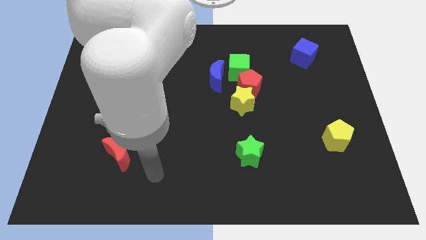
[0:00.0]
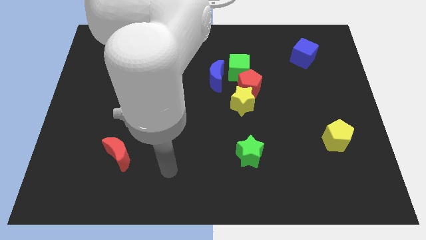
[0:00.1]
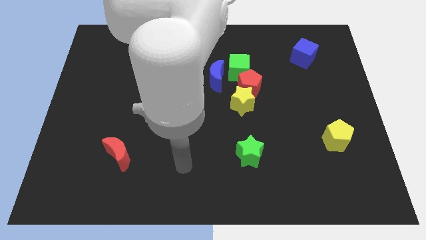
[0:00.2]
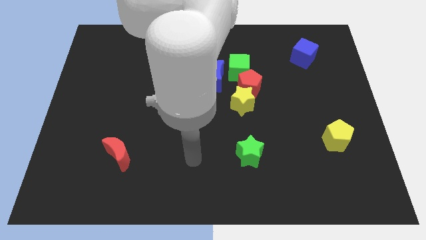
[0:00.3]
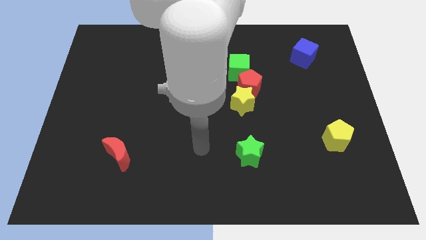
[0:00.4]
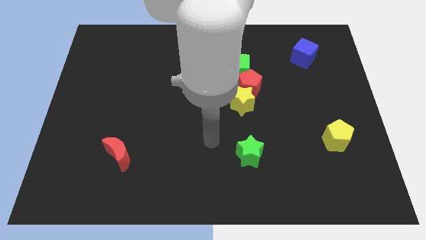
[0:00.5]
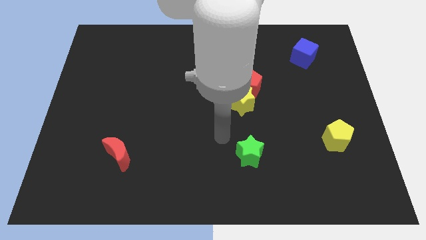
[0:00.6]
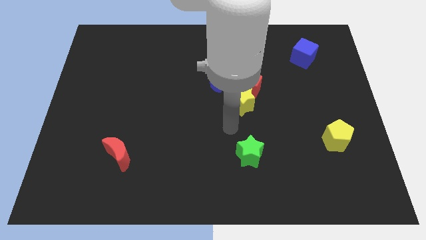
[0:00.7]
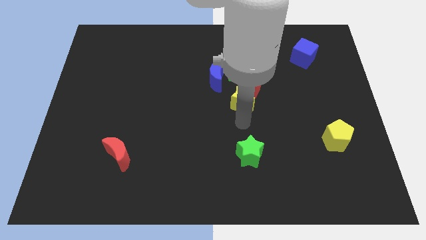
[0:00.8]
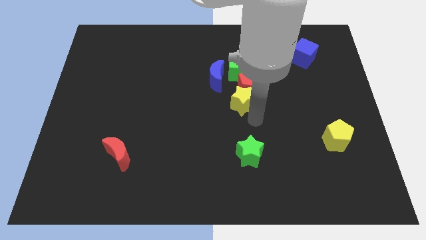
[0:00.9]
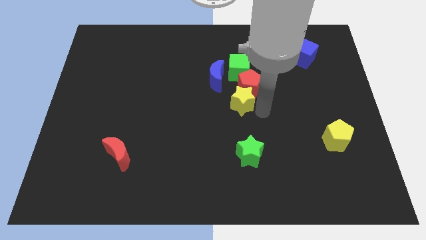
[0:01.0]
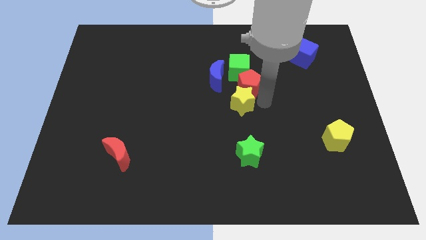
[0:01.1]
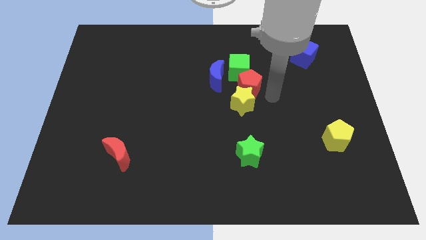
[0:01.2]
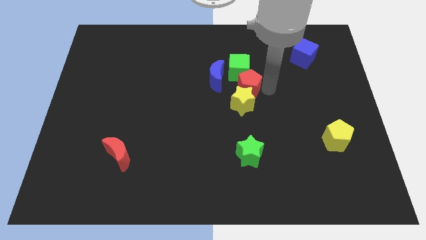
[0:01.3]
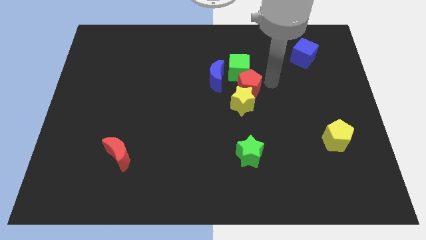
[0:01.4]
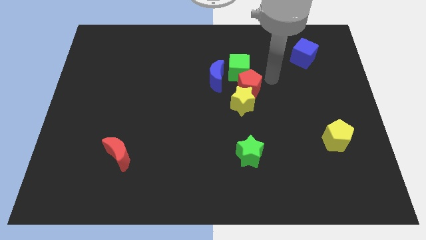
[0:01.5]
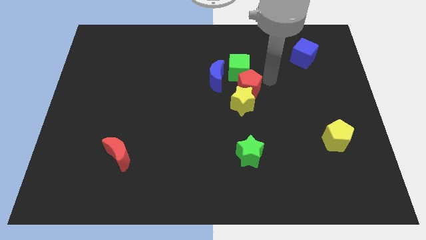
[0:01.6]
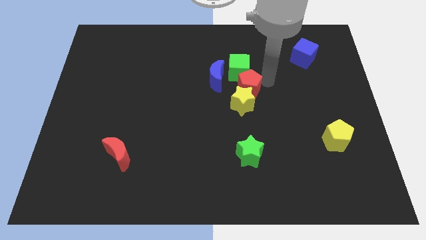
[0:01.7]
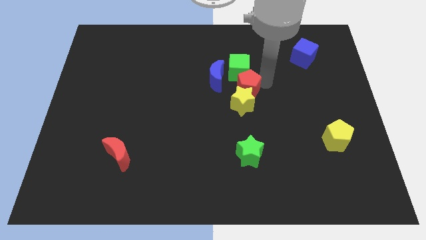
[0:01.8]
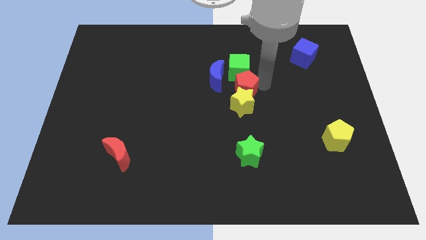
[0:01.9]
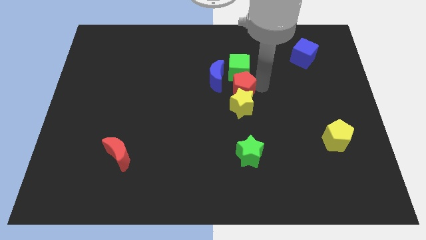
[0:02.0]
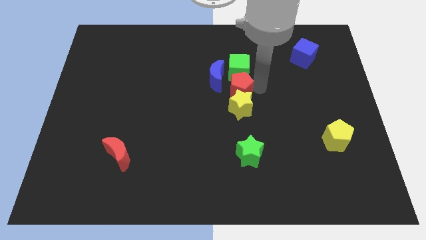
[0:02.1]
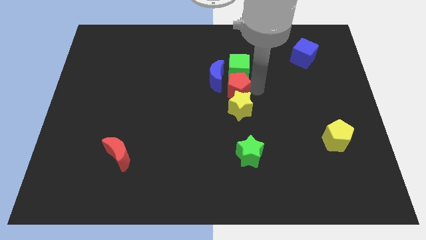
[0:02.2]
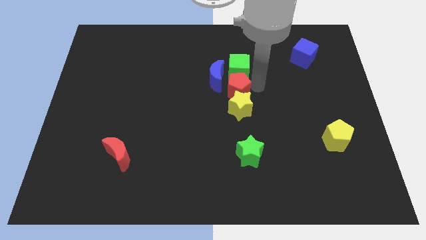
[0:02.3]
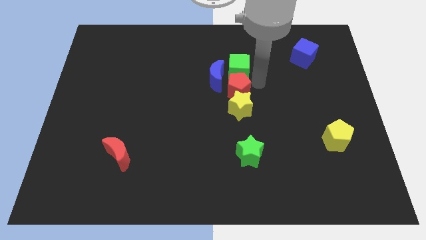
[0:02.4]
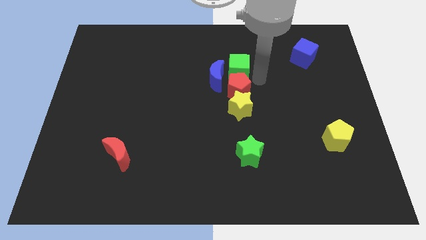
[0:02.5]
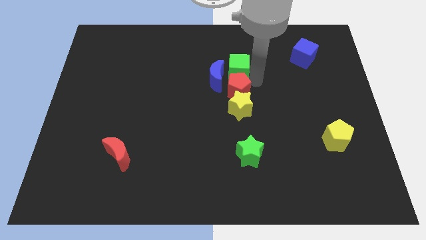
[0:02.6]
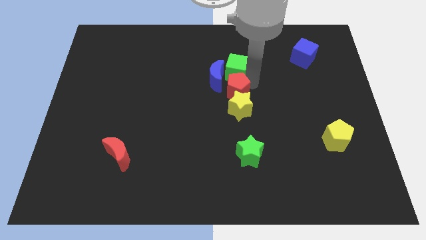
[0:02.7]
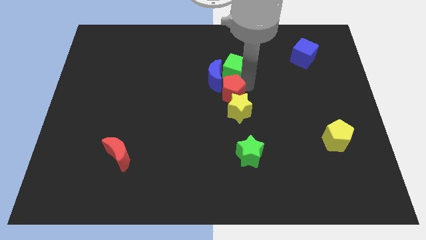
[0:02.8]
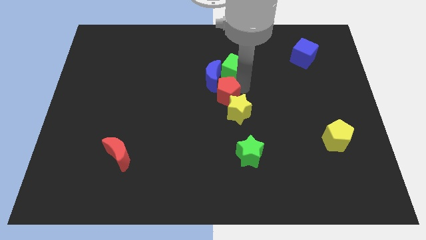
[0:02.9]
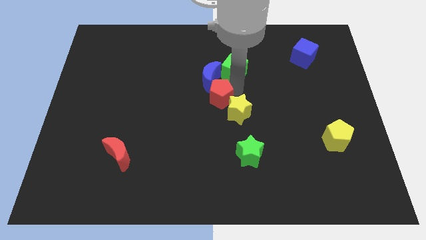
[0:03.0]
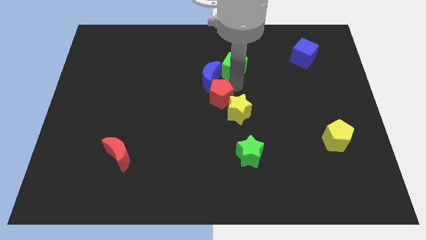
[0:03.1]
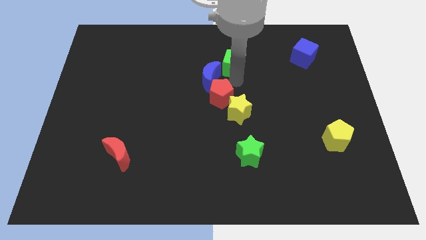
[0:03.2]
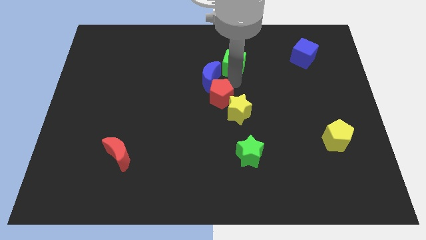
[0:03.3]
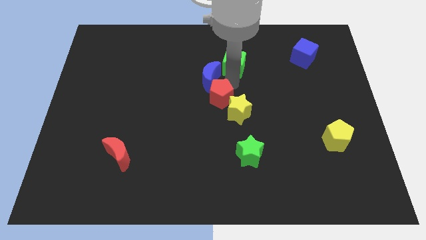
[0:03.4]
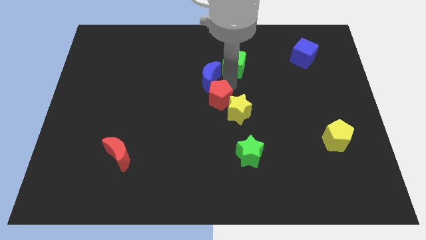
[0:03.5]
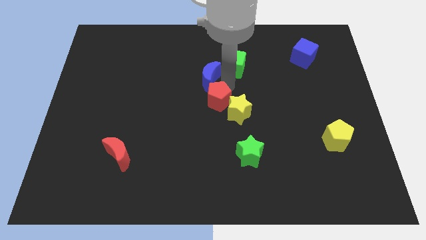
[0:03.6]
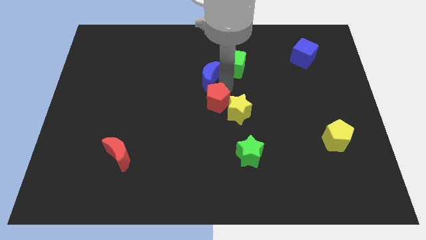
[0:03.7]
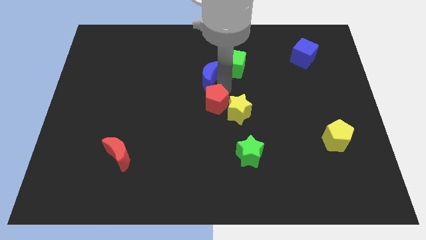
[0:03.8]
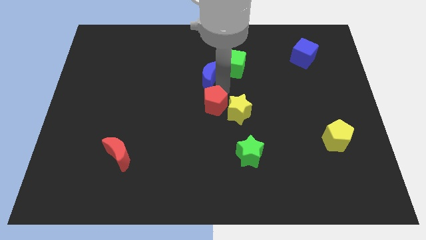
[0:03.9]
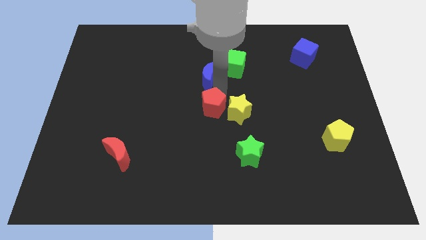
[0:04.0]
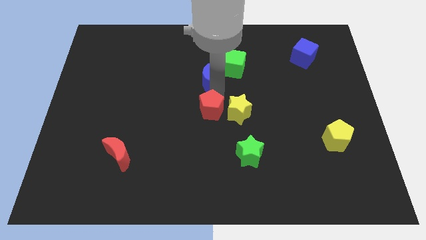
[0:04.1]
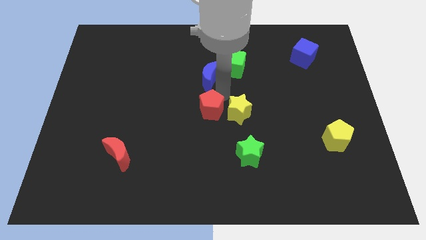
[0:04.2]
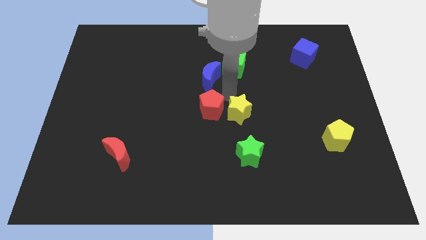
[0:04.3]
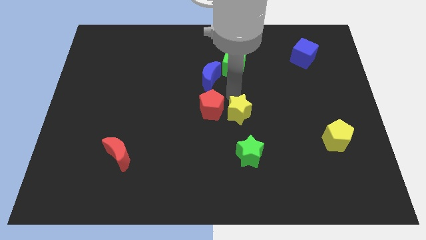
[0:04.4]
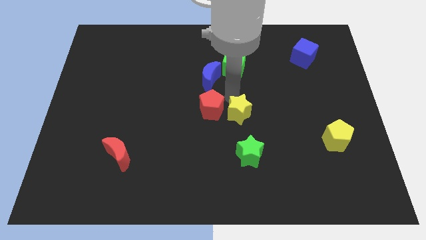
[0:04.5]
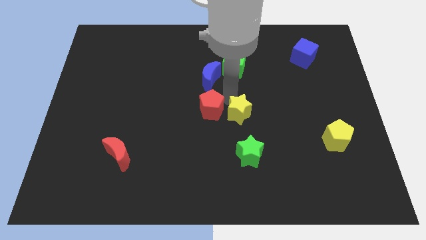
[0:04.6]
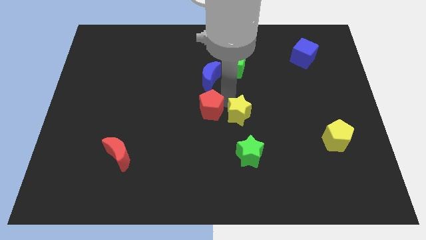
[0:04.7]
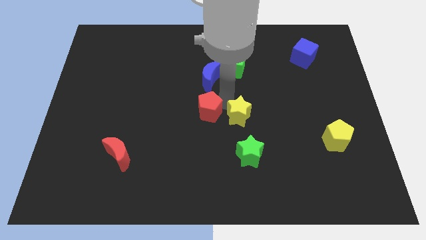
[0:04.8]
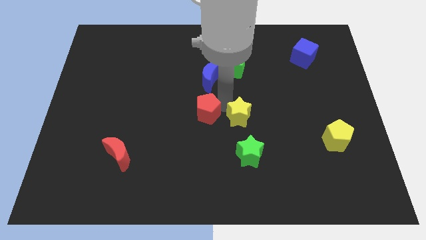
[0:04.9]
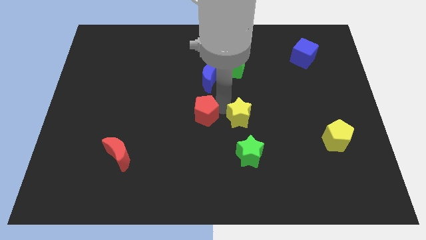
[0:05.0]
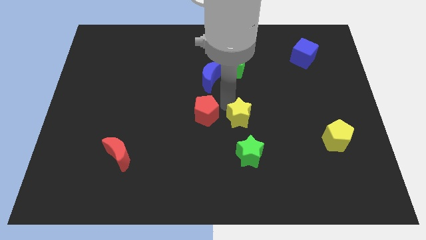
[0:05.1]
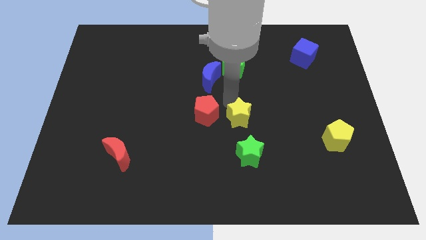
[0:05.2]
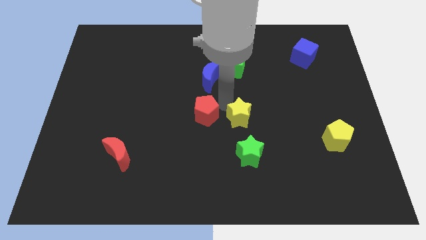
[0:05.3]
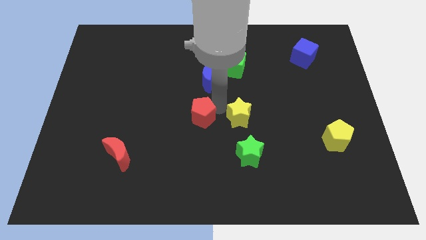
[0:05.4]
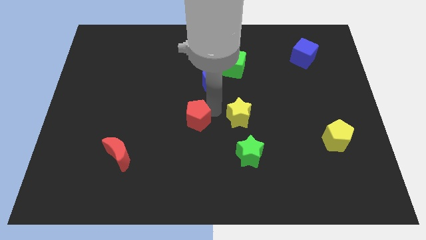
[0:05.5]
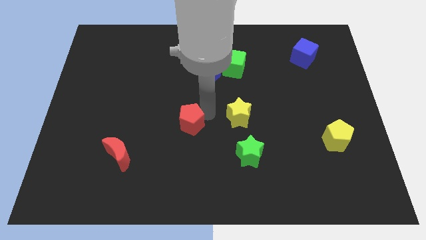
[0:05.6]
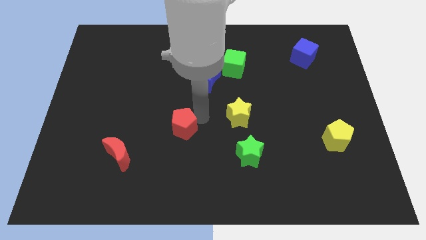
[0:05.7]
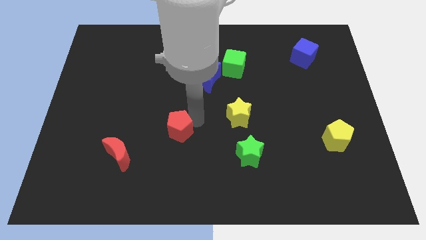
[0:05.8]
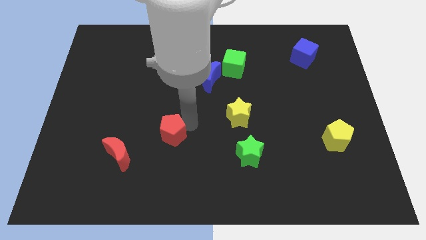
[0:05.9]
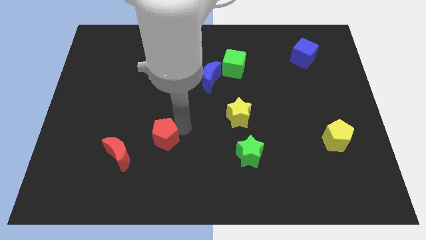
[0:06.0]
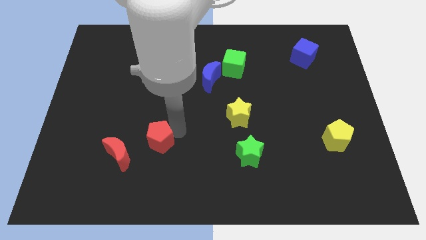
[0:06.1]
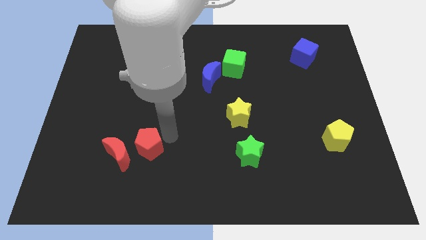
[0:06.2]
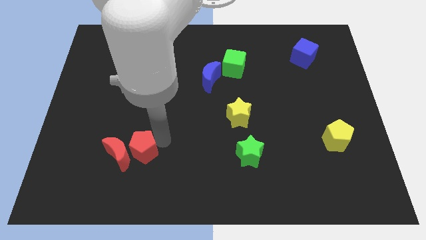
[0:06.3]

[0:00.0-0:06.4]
put the red pentagon close to the red moon

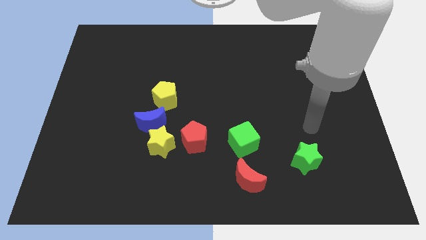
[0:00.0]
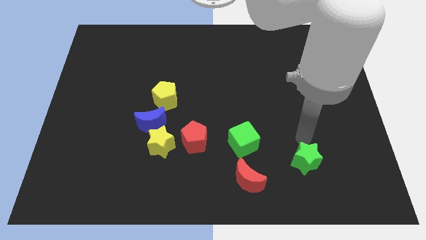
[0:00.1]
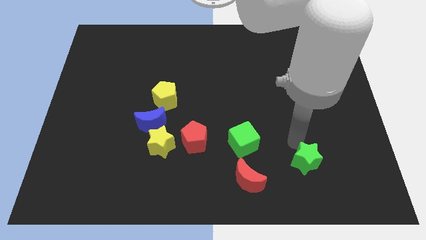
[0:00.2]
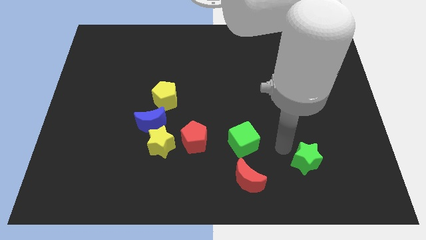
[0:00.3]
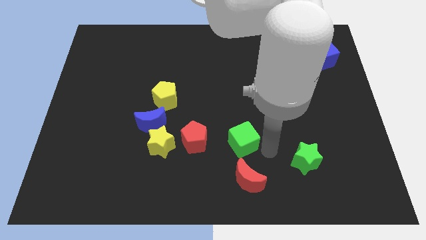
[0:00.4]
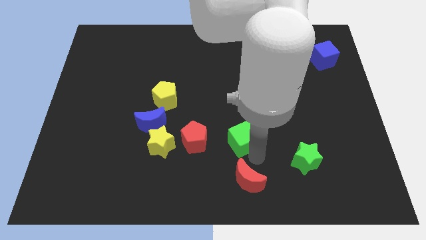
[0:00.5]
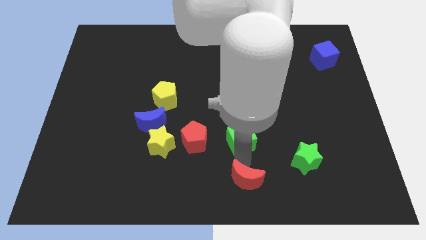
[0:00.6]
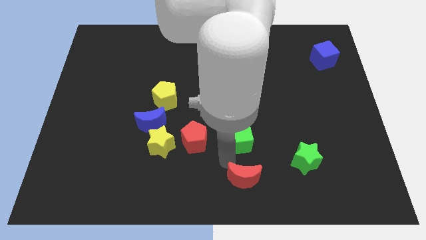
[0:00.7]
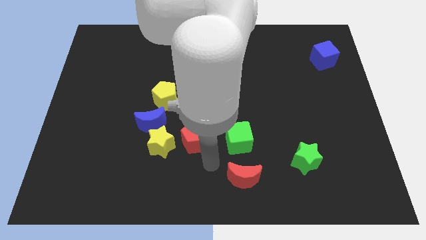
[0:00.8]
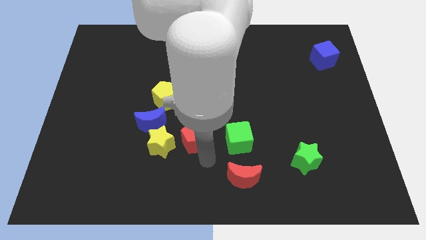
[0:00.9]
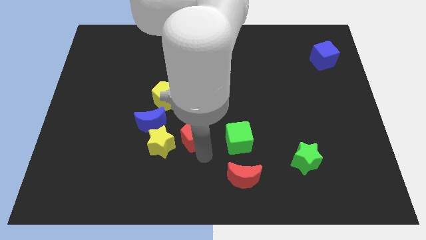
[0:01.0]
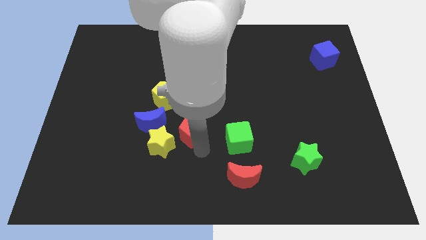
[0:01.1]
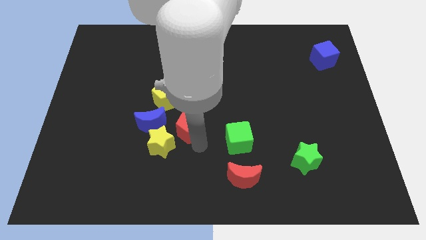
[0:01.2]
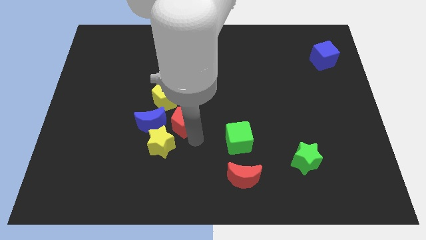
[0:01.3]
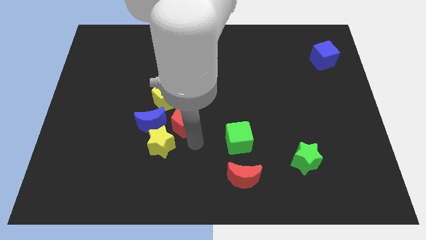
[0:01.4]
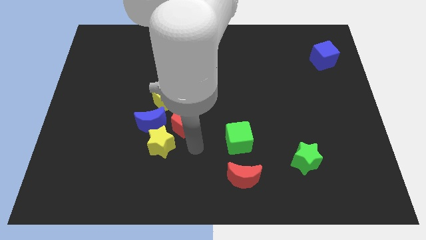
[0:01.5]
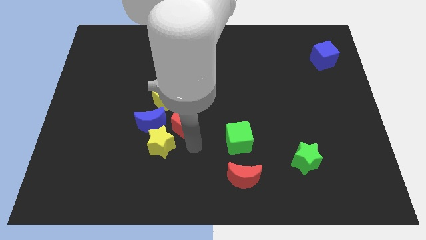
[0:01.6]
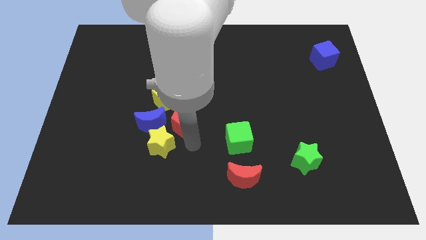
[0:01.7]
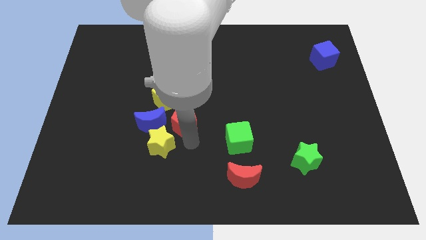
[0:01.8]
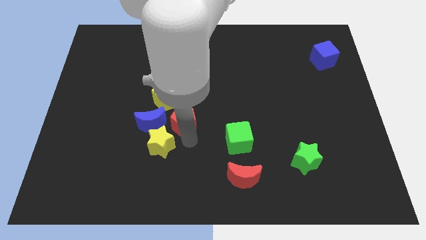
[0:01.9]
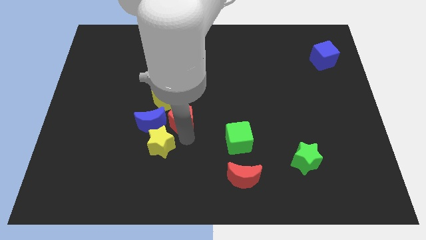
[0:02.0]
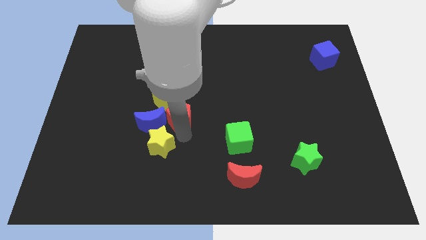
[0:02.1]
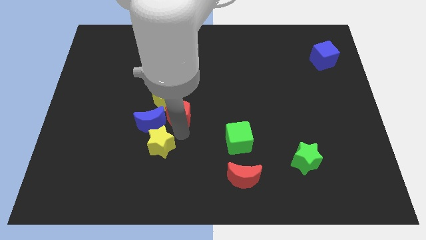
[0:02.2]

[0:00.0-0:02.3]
put the red pentagon to the yellow pentagon
